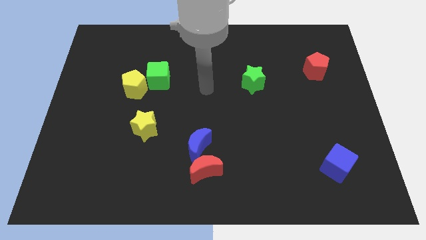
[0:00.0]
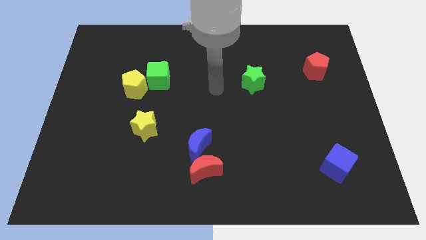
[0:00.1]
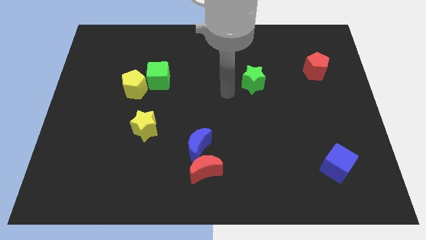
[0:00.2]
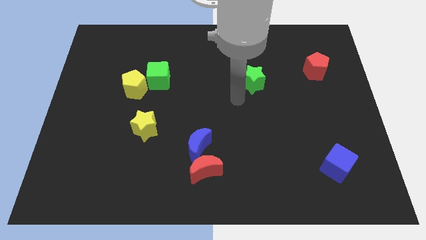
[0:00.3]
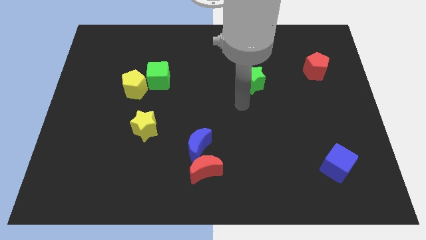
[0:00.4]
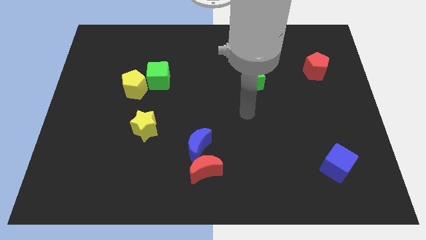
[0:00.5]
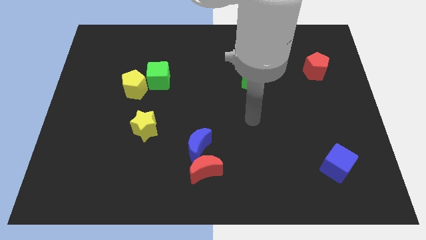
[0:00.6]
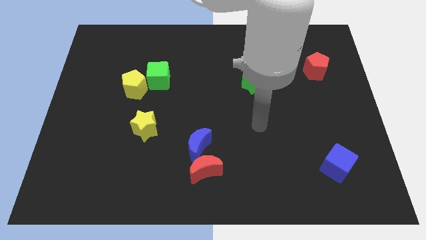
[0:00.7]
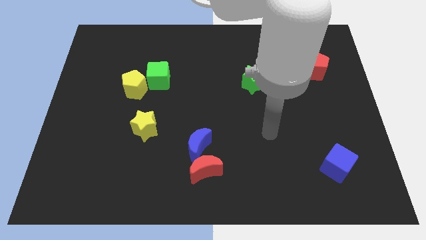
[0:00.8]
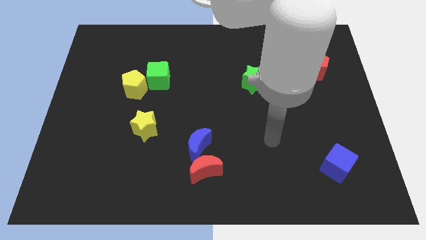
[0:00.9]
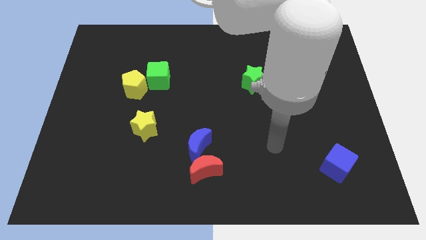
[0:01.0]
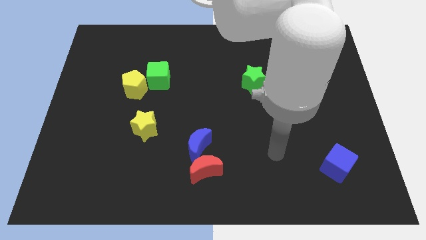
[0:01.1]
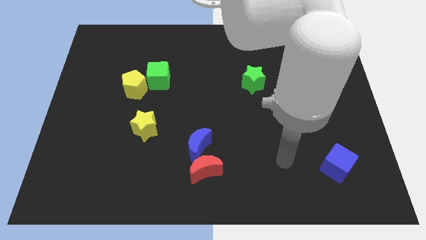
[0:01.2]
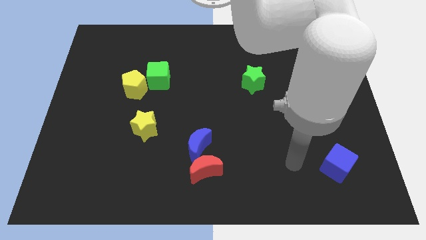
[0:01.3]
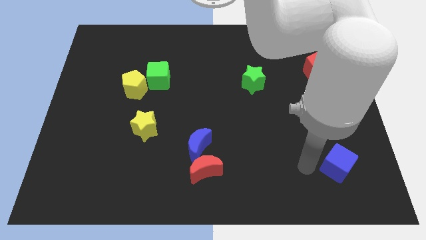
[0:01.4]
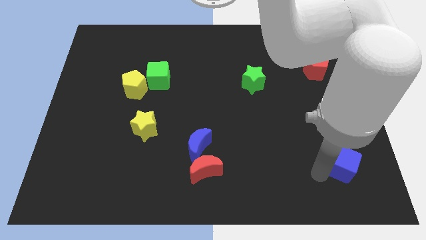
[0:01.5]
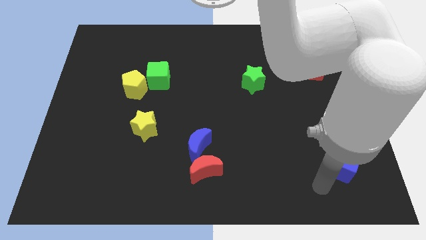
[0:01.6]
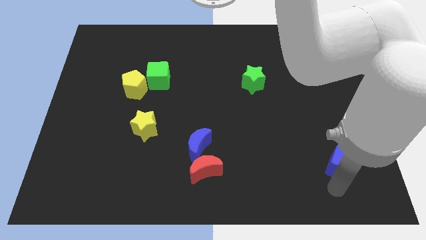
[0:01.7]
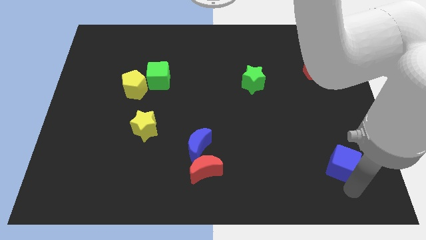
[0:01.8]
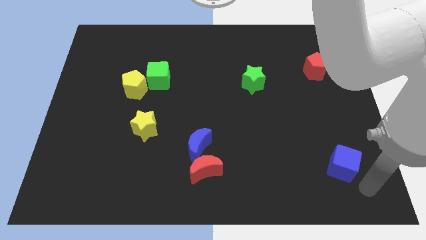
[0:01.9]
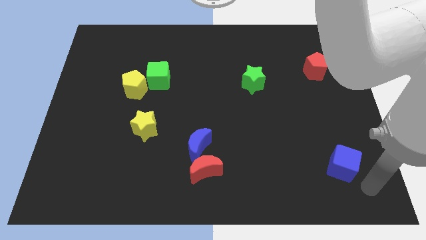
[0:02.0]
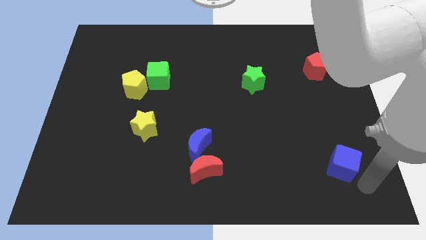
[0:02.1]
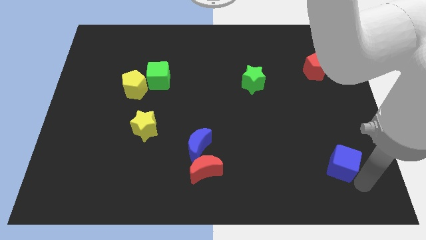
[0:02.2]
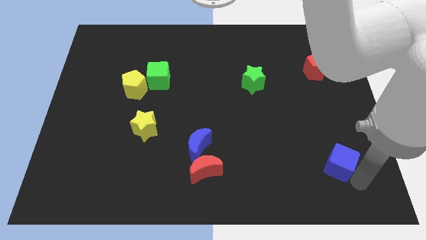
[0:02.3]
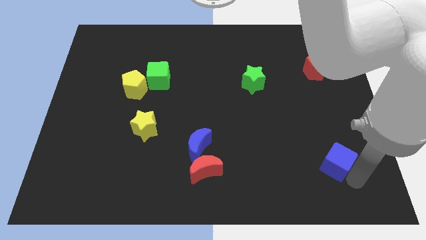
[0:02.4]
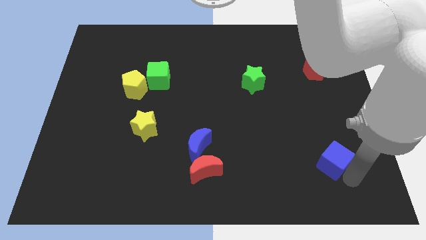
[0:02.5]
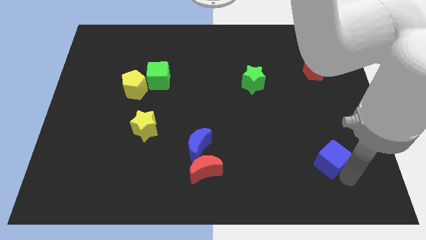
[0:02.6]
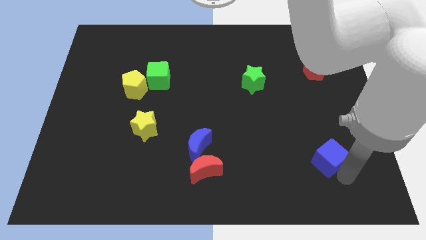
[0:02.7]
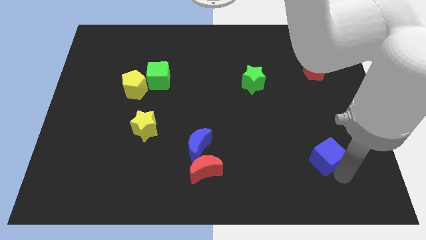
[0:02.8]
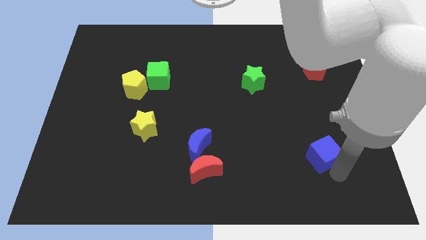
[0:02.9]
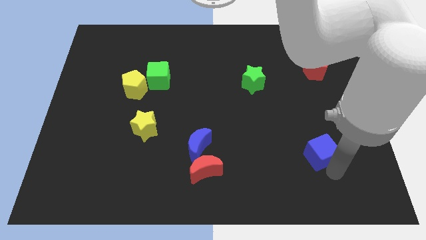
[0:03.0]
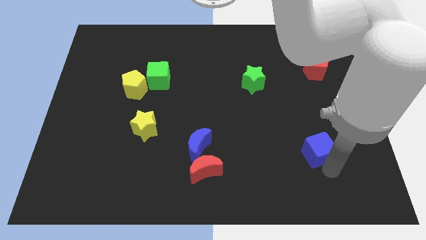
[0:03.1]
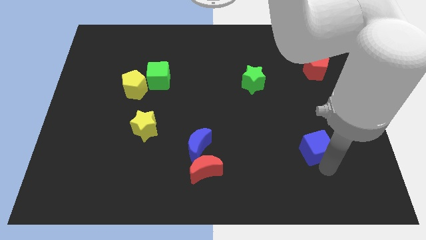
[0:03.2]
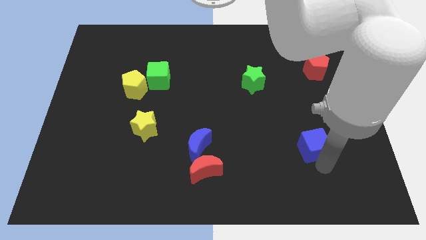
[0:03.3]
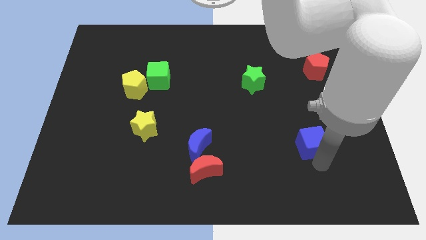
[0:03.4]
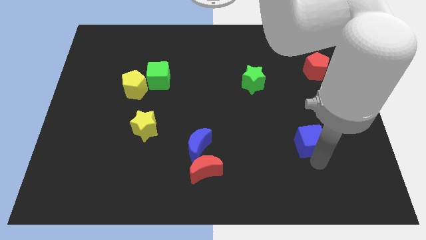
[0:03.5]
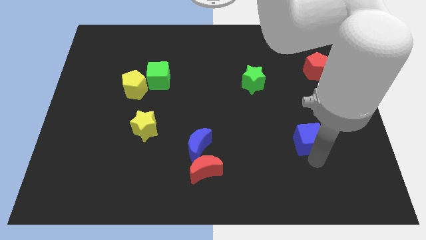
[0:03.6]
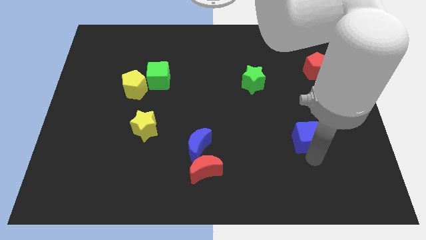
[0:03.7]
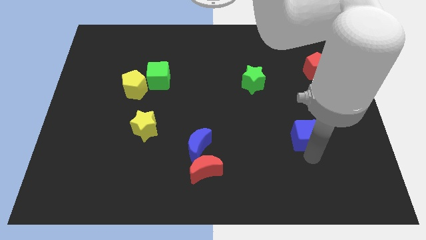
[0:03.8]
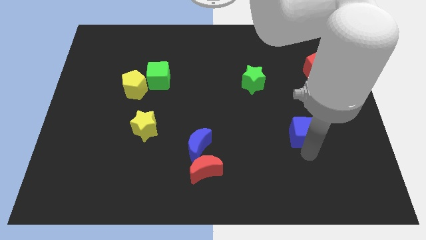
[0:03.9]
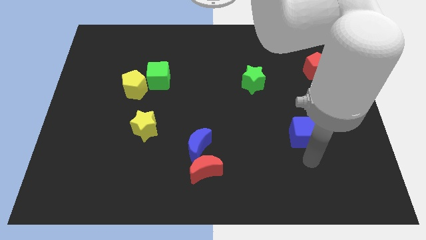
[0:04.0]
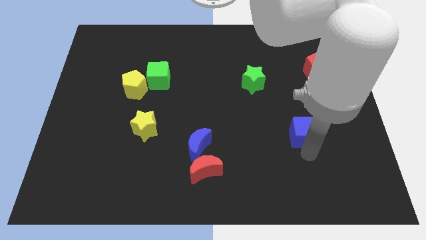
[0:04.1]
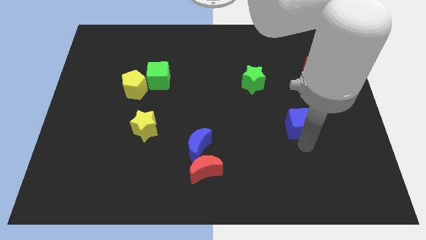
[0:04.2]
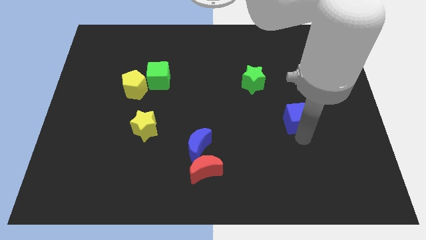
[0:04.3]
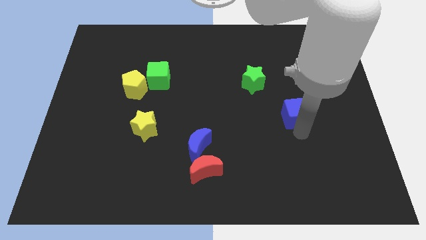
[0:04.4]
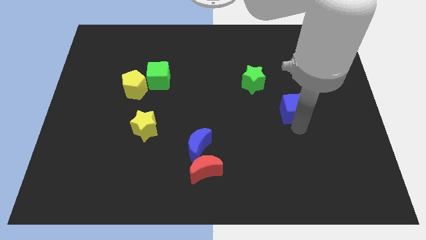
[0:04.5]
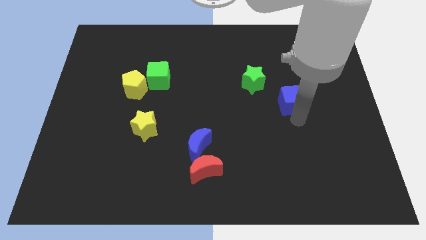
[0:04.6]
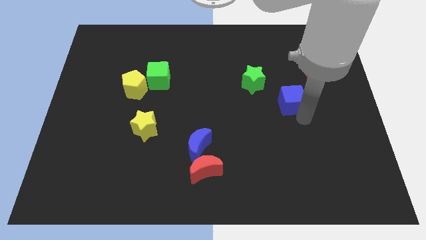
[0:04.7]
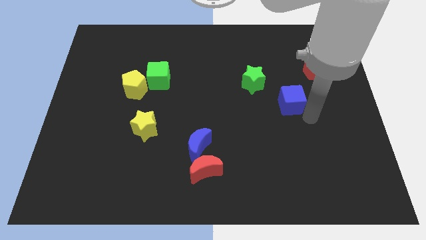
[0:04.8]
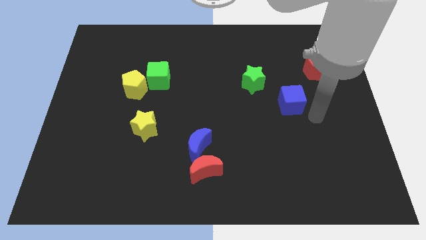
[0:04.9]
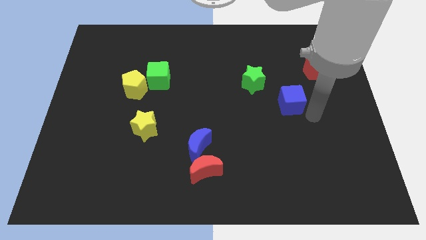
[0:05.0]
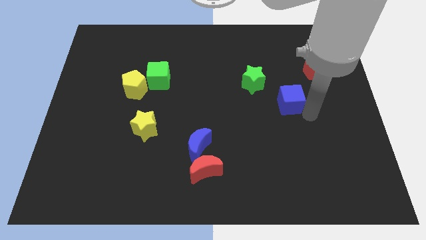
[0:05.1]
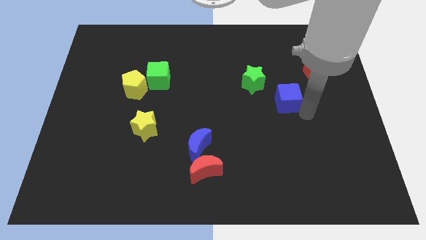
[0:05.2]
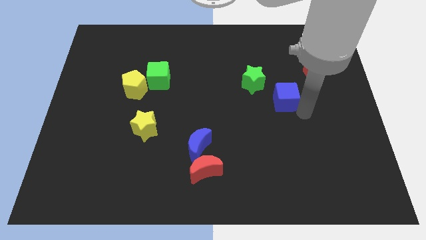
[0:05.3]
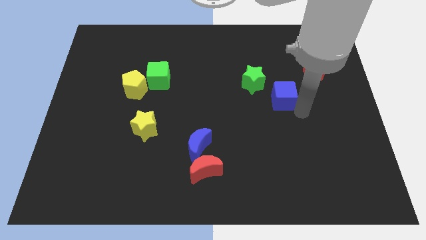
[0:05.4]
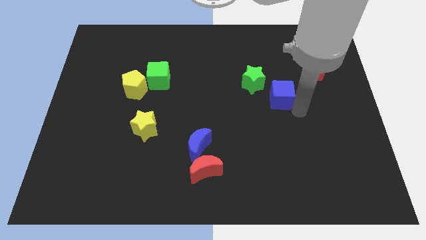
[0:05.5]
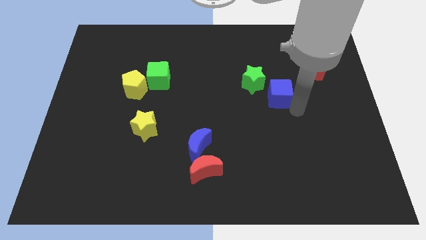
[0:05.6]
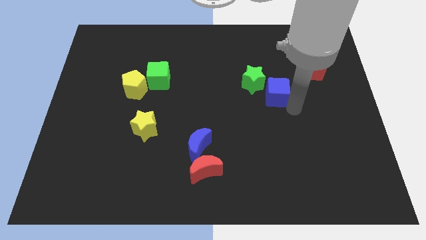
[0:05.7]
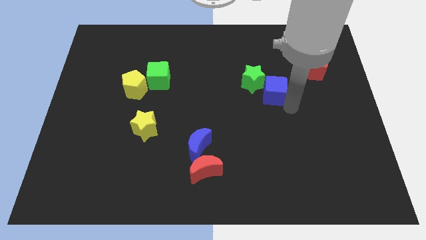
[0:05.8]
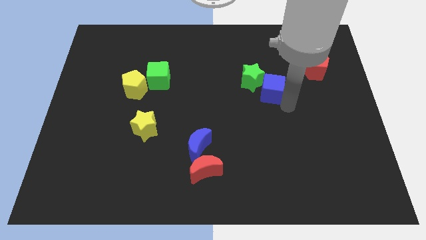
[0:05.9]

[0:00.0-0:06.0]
move the blue cube towards the green star
